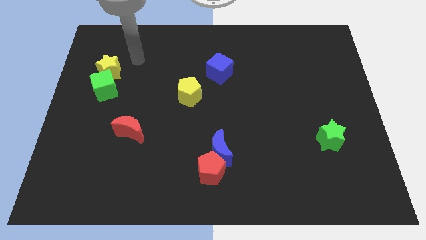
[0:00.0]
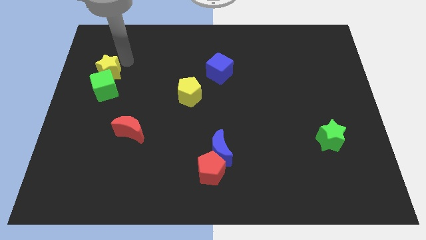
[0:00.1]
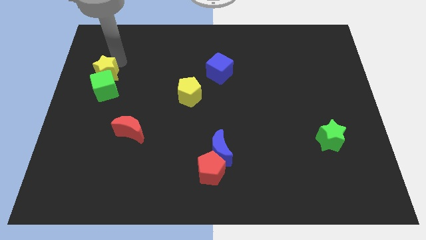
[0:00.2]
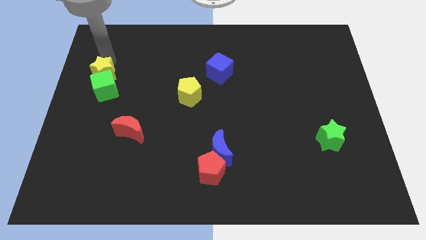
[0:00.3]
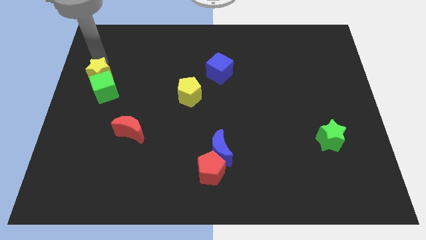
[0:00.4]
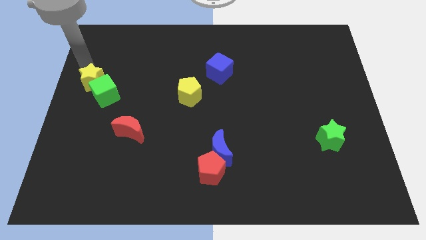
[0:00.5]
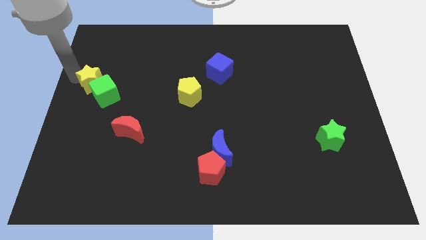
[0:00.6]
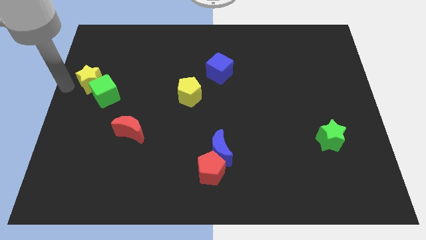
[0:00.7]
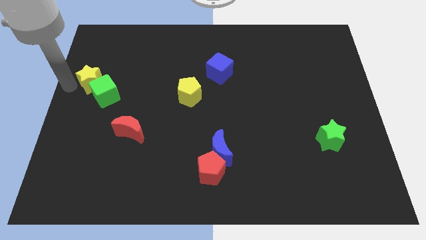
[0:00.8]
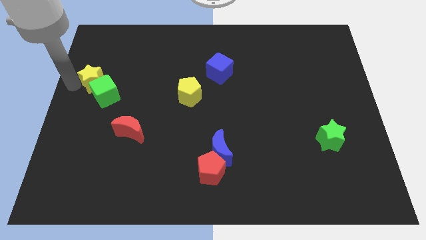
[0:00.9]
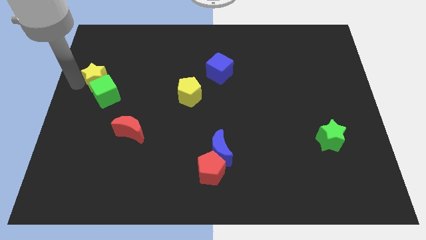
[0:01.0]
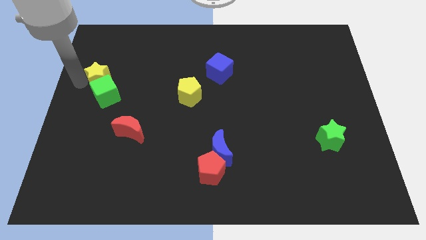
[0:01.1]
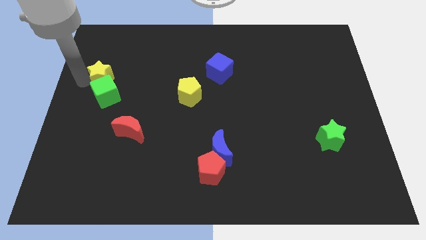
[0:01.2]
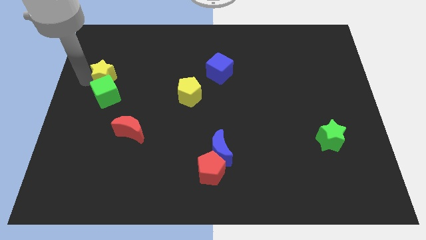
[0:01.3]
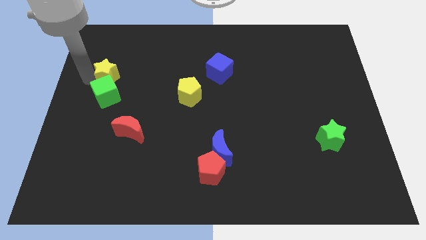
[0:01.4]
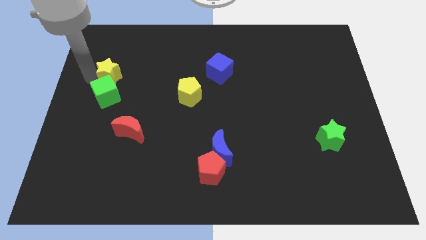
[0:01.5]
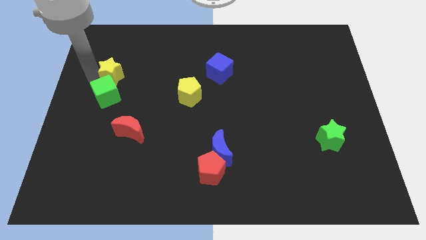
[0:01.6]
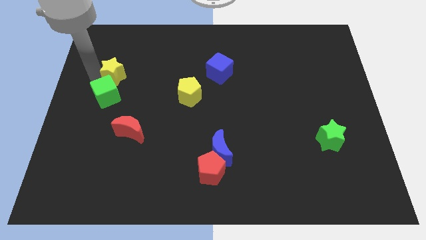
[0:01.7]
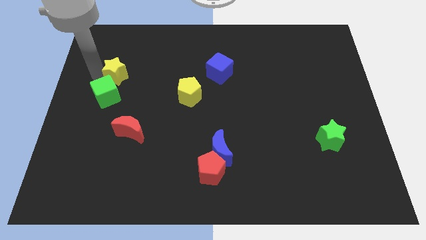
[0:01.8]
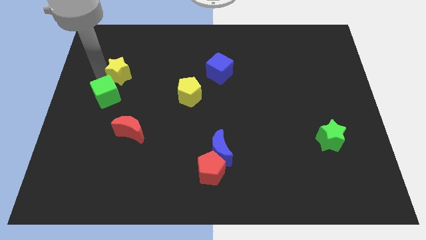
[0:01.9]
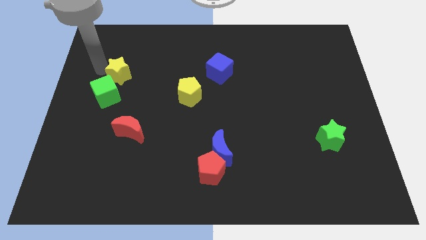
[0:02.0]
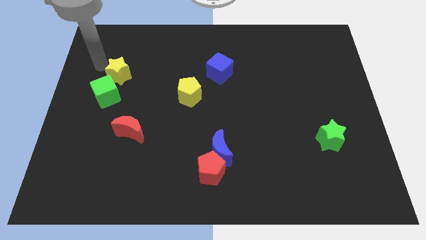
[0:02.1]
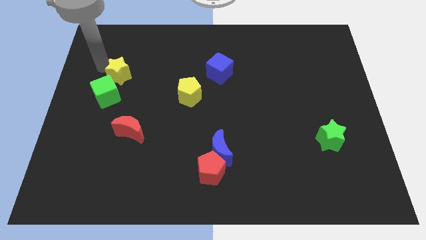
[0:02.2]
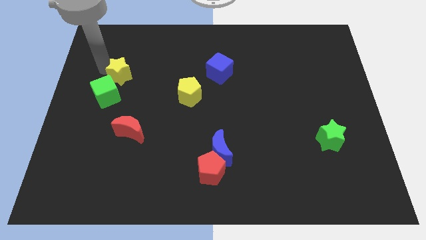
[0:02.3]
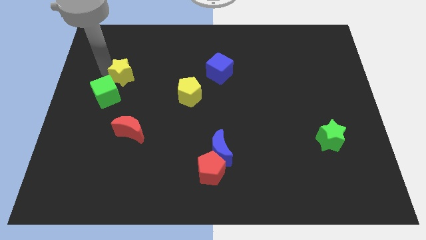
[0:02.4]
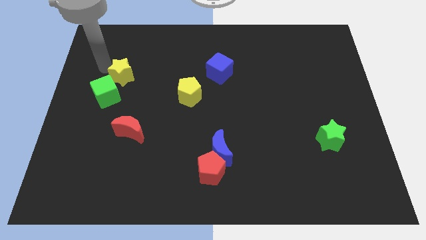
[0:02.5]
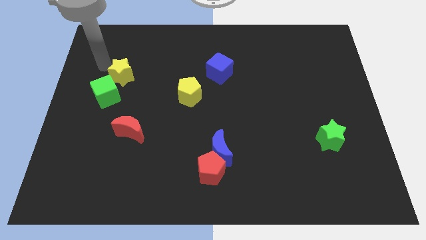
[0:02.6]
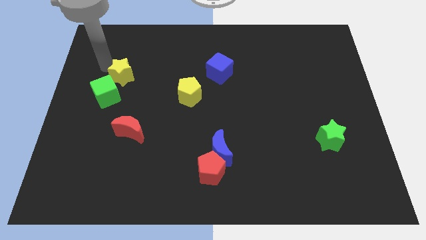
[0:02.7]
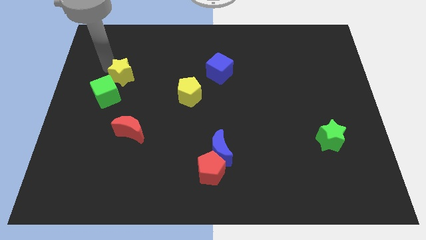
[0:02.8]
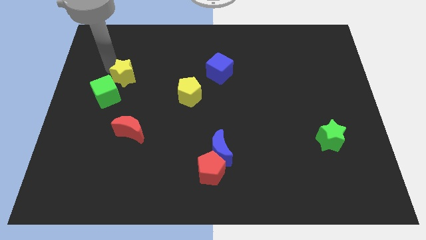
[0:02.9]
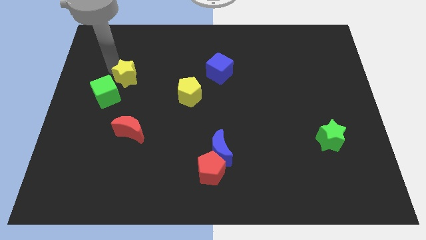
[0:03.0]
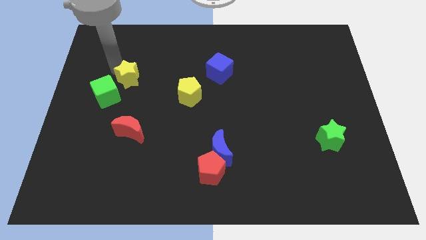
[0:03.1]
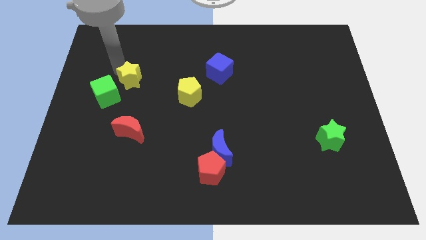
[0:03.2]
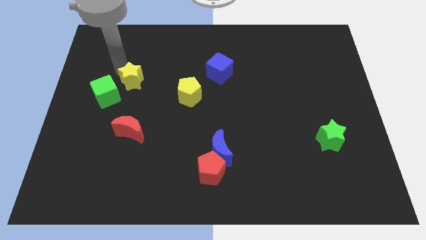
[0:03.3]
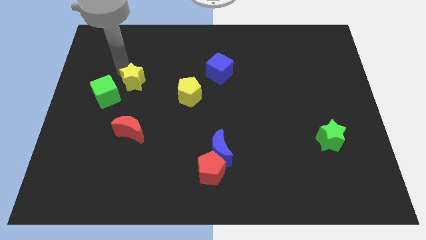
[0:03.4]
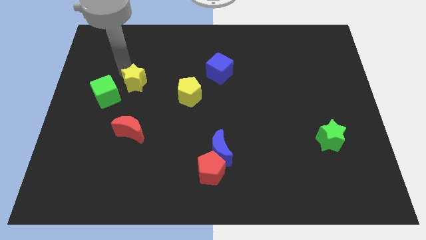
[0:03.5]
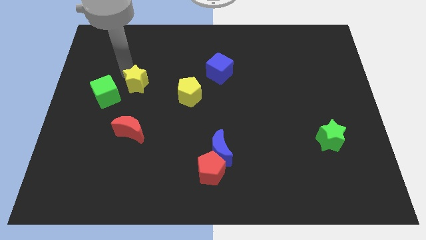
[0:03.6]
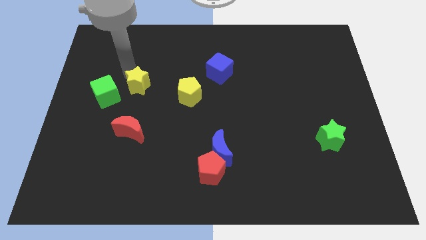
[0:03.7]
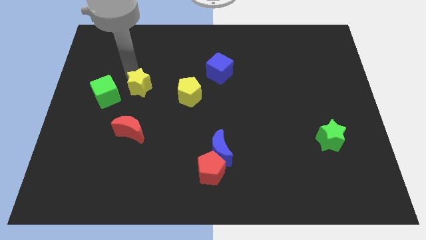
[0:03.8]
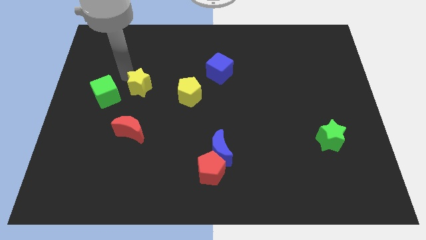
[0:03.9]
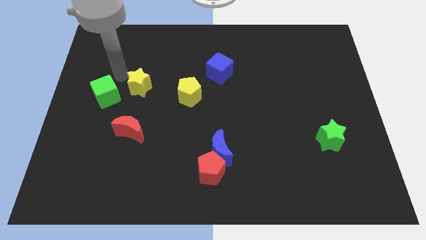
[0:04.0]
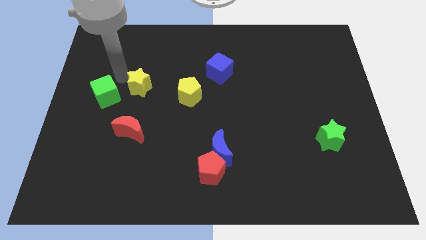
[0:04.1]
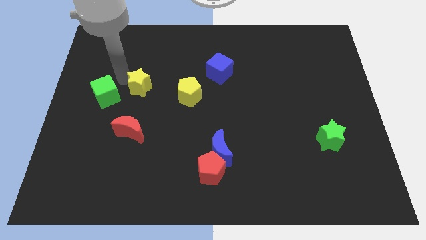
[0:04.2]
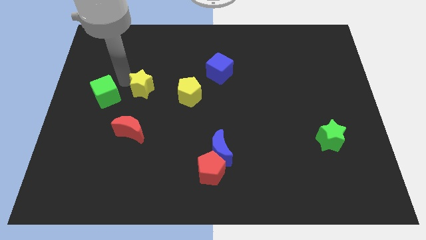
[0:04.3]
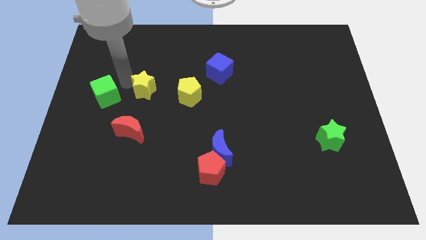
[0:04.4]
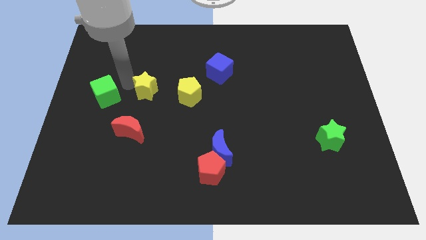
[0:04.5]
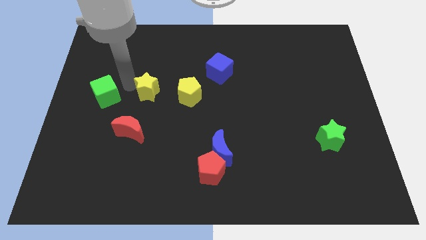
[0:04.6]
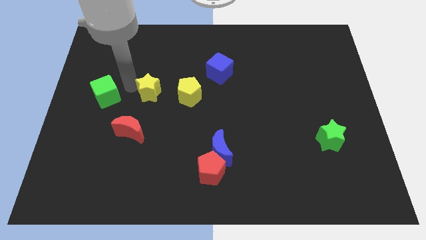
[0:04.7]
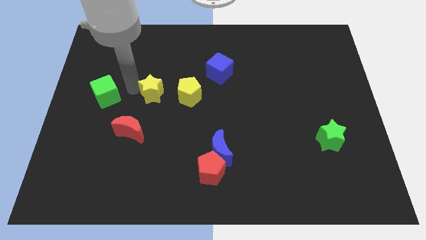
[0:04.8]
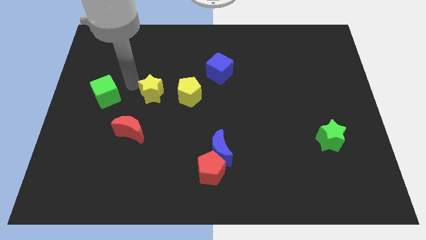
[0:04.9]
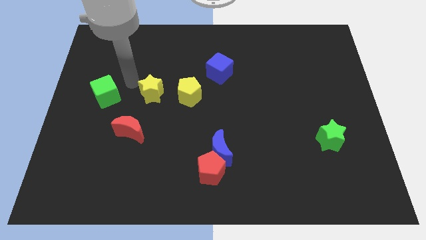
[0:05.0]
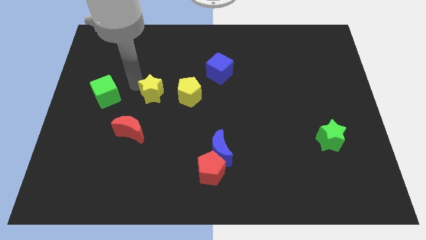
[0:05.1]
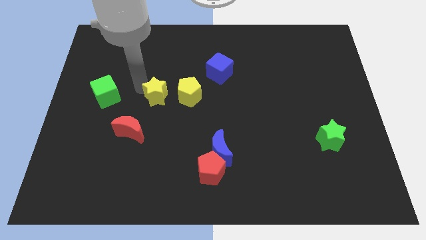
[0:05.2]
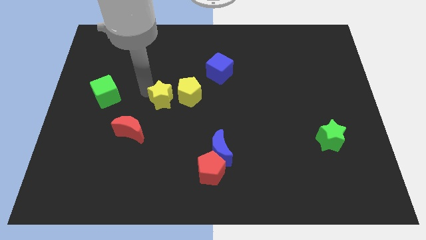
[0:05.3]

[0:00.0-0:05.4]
push the yellow star to the center of the board

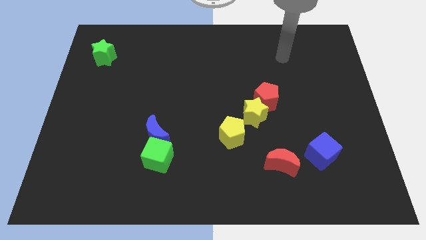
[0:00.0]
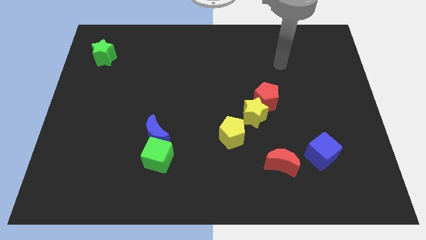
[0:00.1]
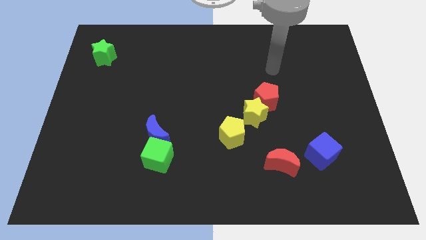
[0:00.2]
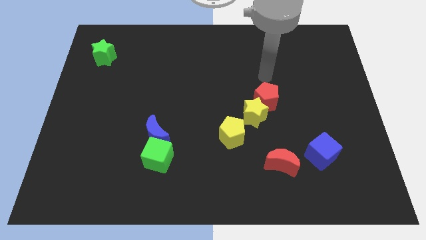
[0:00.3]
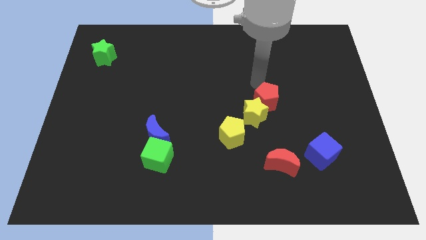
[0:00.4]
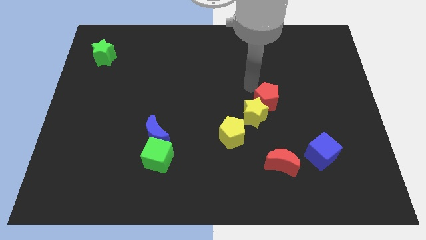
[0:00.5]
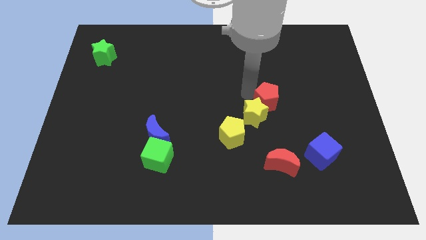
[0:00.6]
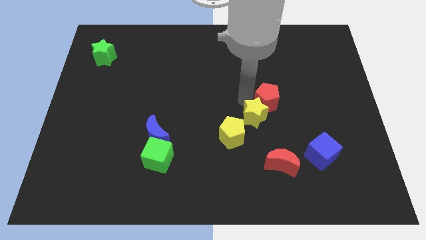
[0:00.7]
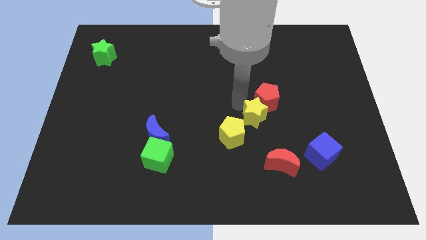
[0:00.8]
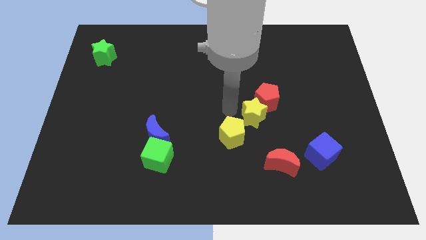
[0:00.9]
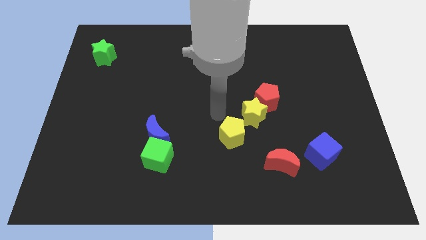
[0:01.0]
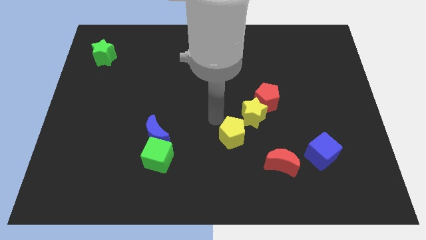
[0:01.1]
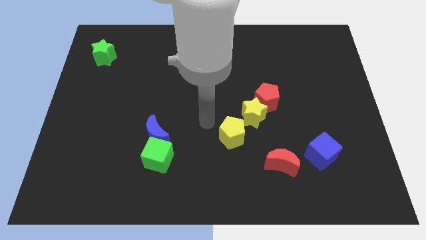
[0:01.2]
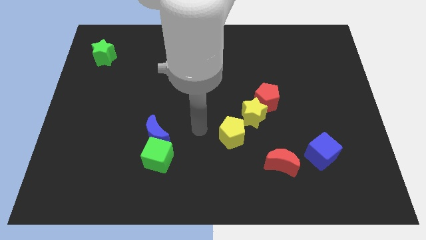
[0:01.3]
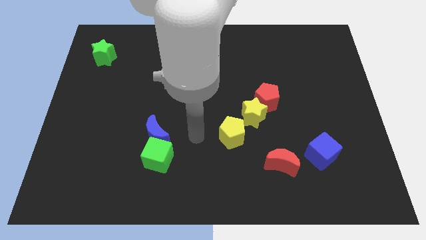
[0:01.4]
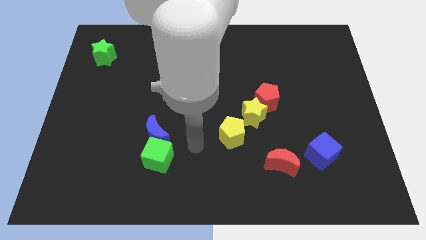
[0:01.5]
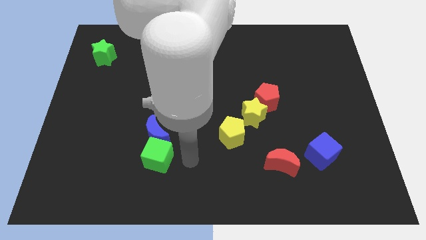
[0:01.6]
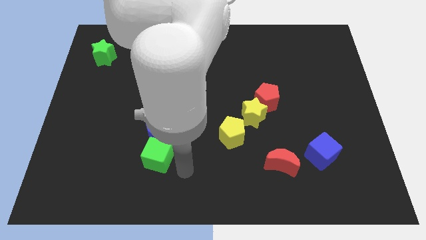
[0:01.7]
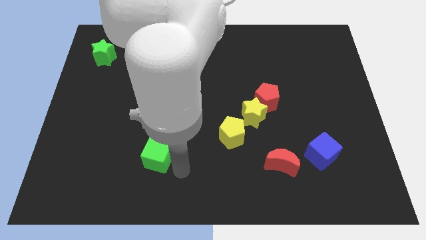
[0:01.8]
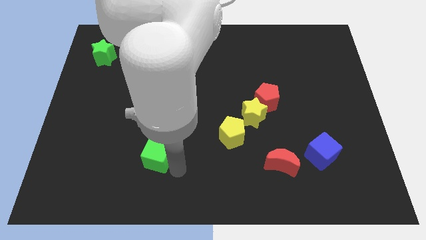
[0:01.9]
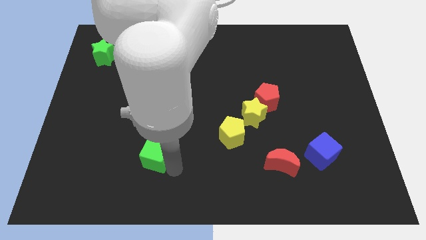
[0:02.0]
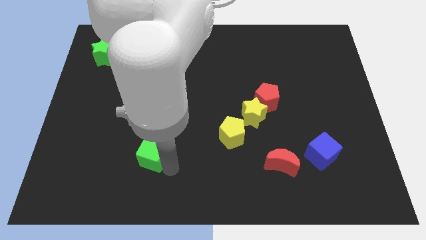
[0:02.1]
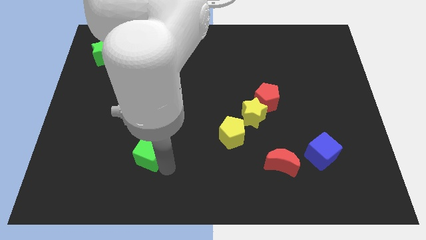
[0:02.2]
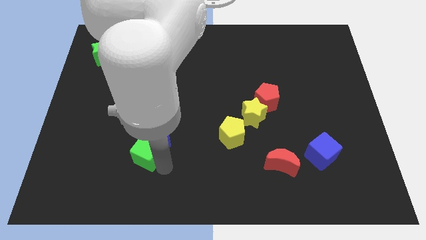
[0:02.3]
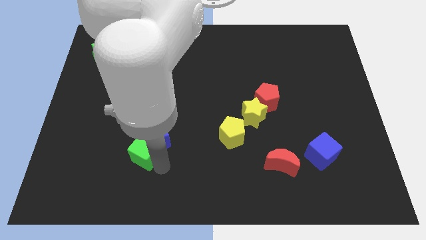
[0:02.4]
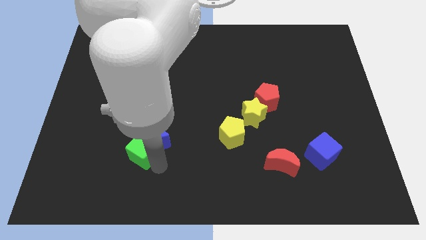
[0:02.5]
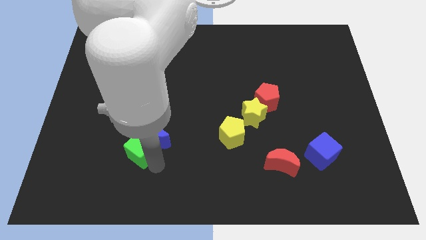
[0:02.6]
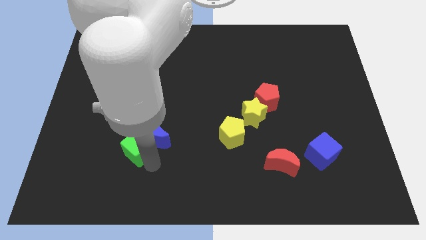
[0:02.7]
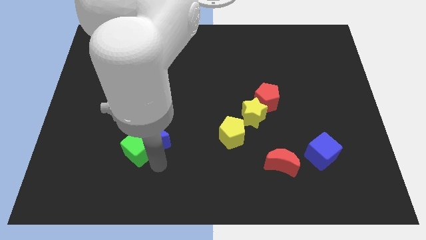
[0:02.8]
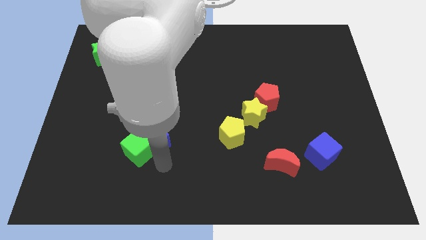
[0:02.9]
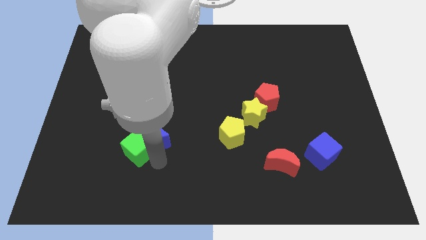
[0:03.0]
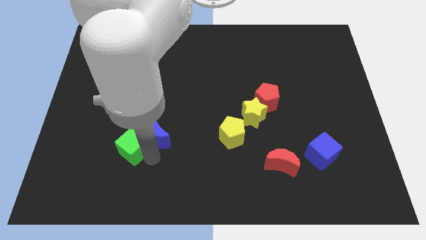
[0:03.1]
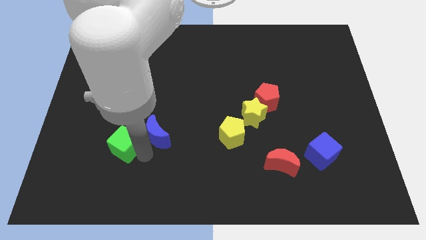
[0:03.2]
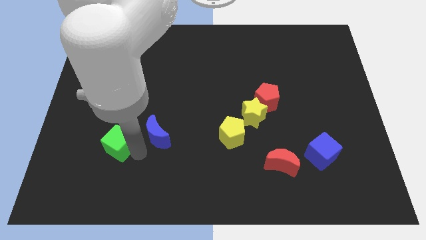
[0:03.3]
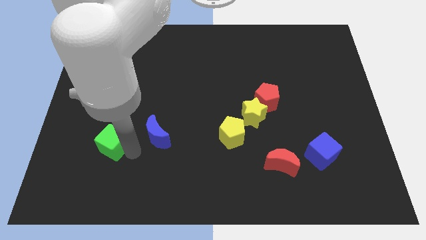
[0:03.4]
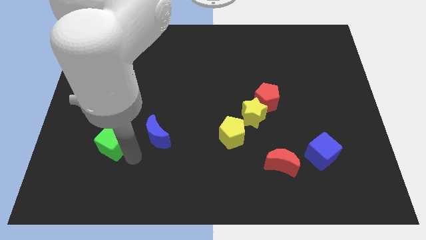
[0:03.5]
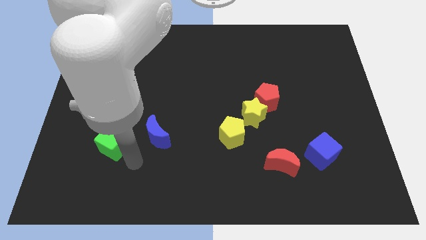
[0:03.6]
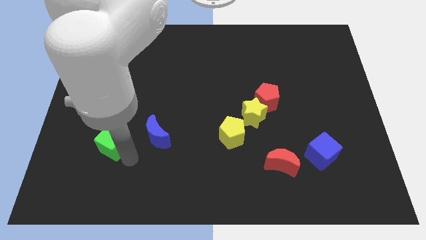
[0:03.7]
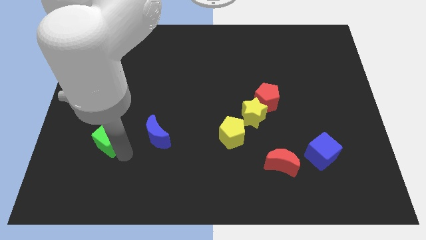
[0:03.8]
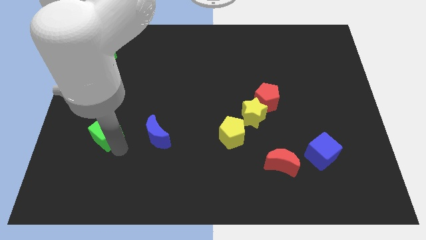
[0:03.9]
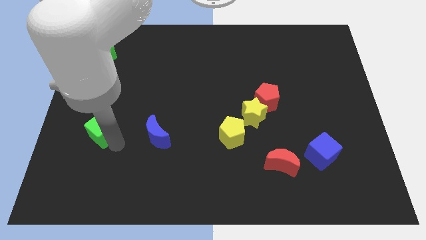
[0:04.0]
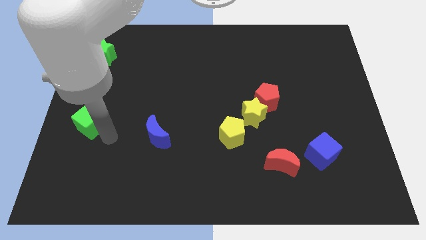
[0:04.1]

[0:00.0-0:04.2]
push the green cube to the left side
